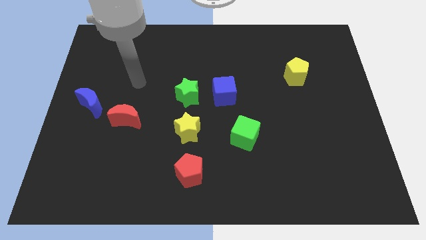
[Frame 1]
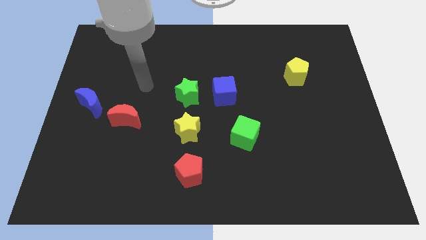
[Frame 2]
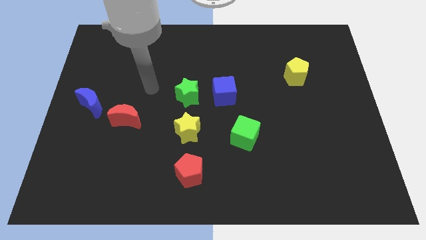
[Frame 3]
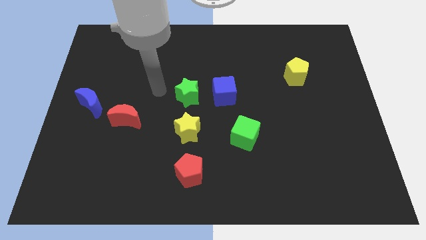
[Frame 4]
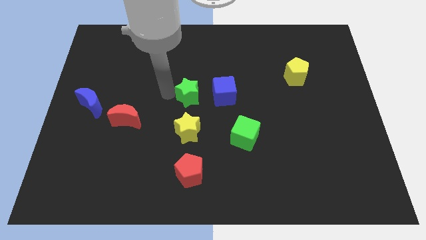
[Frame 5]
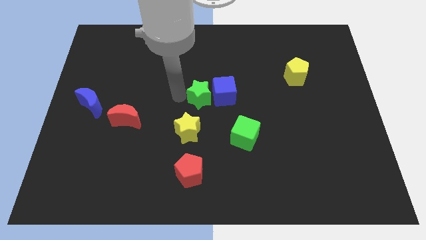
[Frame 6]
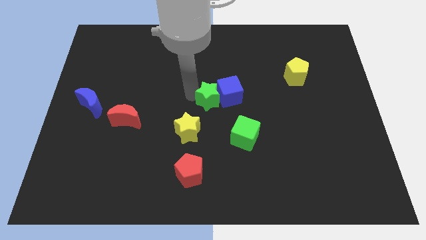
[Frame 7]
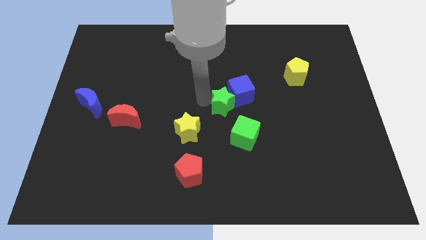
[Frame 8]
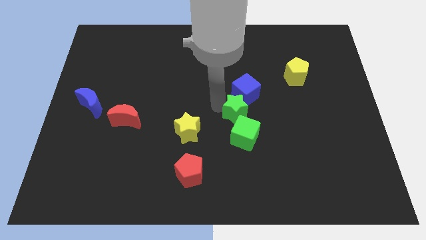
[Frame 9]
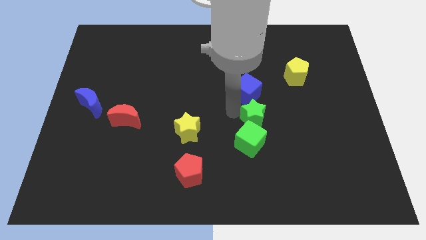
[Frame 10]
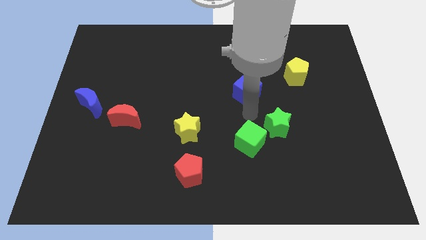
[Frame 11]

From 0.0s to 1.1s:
pull the blue cube apart from the green star

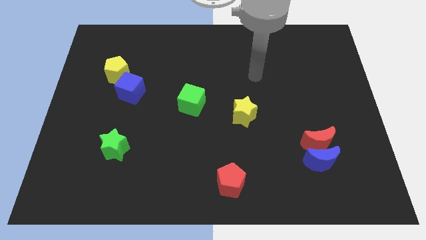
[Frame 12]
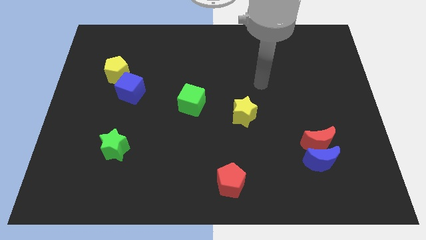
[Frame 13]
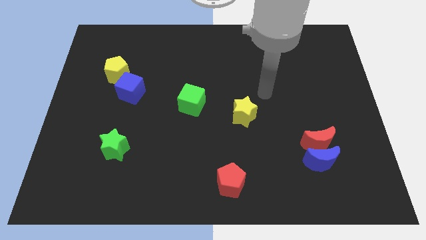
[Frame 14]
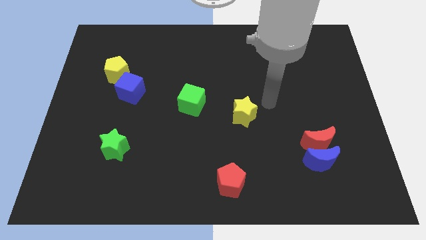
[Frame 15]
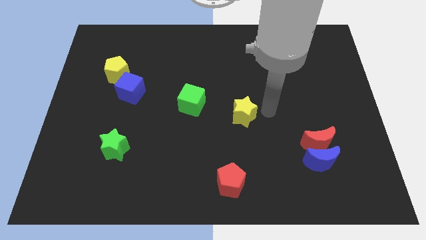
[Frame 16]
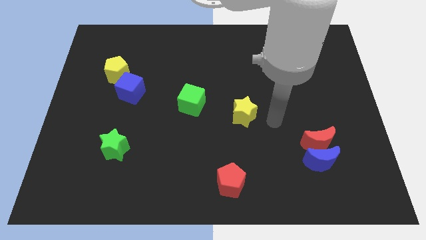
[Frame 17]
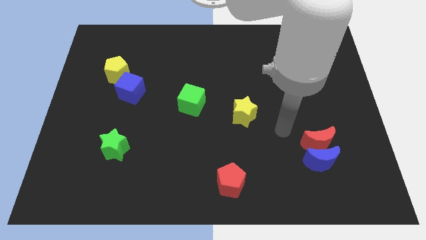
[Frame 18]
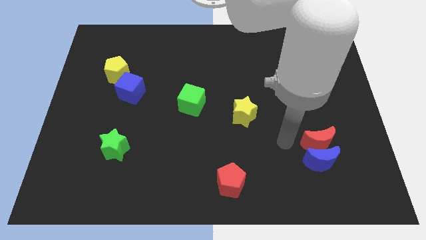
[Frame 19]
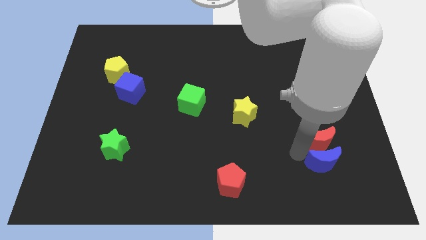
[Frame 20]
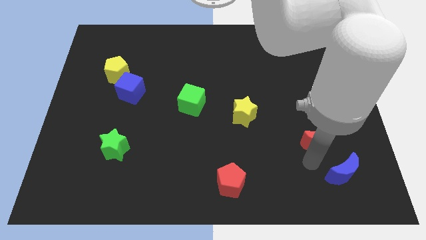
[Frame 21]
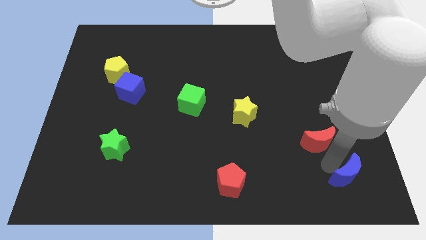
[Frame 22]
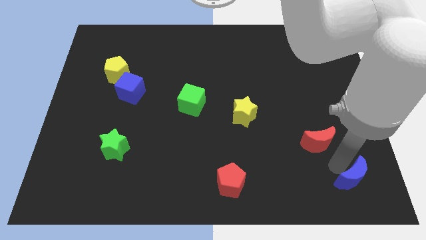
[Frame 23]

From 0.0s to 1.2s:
move the red moon away from the blue moon

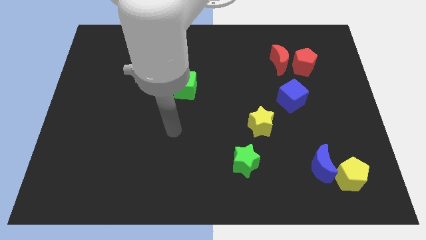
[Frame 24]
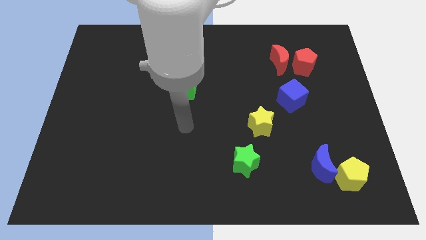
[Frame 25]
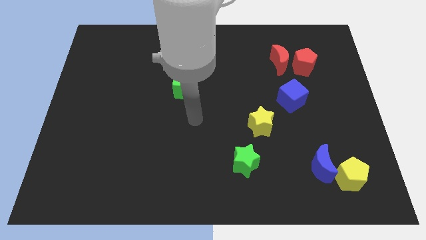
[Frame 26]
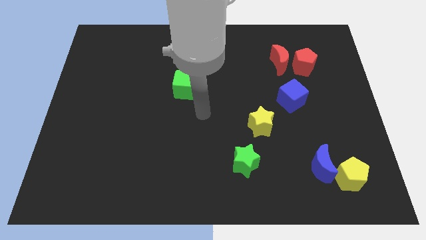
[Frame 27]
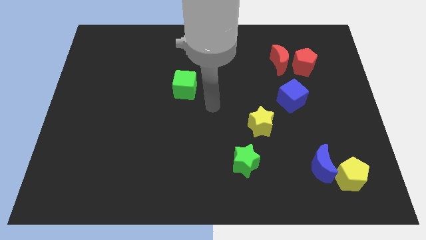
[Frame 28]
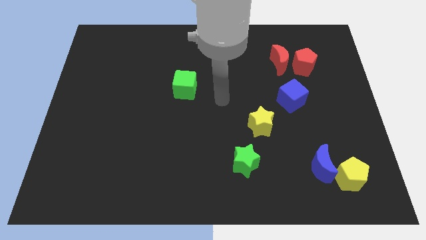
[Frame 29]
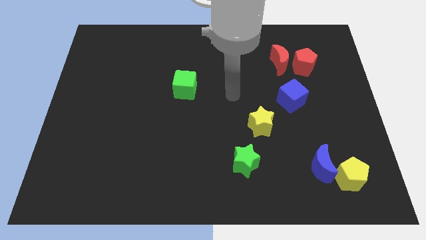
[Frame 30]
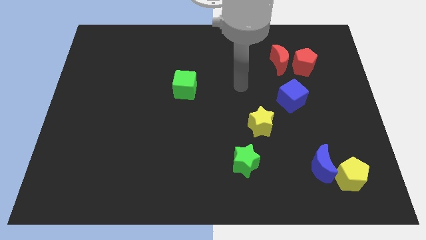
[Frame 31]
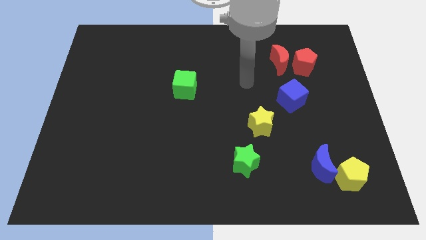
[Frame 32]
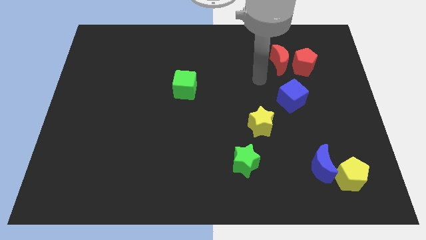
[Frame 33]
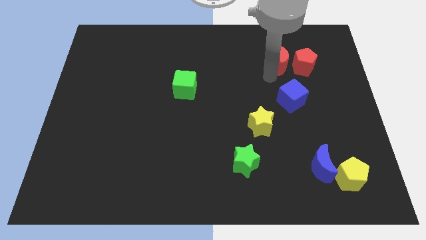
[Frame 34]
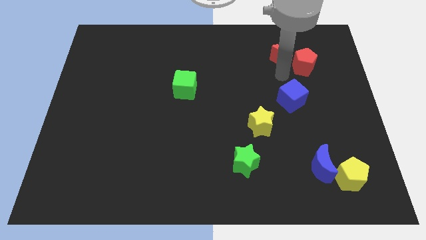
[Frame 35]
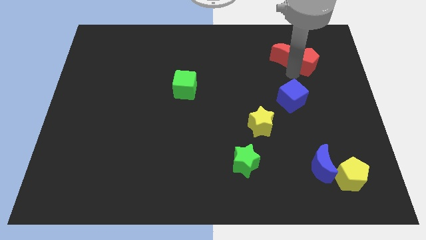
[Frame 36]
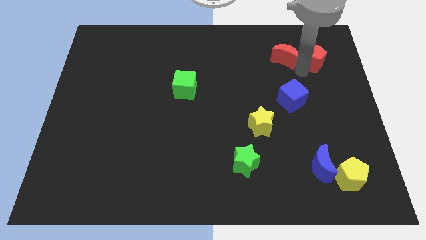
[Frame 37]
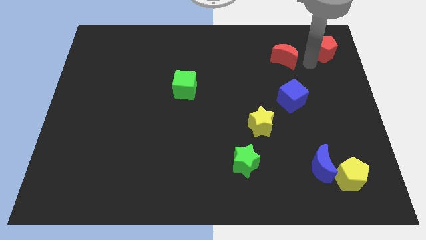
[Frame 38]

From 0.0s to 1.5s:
move the red moon away from the red pentagon

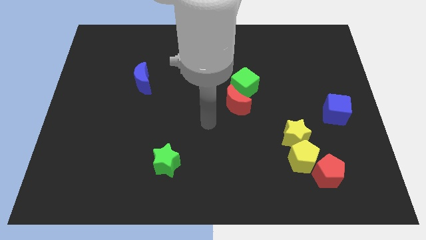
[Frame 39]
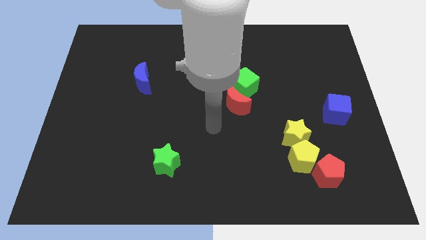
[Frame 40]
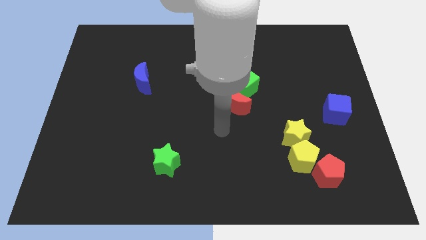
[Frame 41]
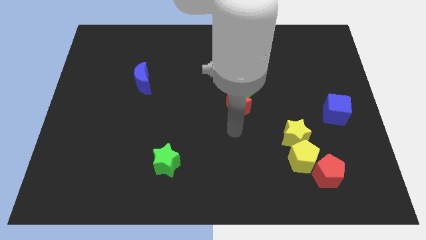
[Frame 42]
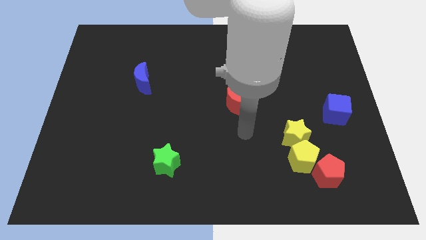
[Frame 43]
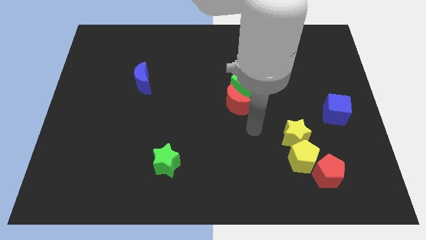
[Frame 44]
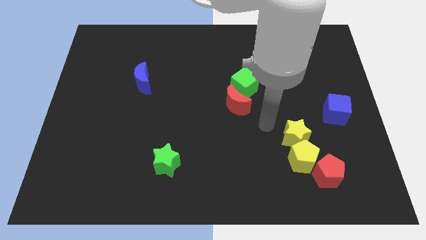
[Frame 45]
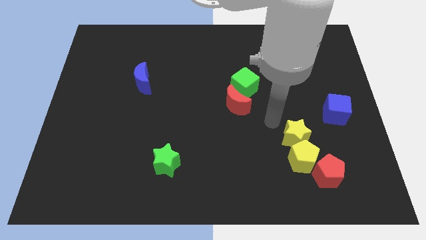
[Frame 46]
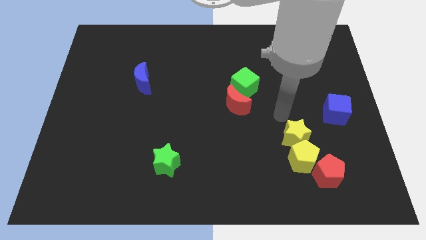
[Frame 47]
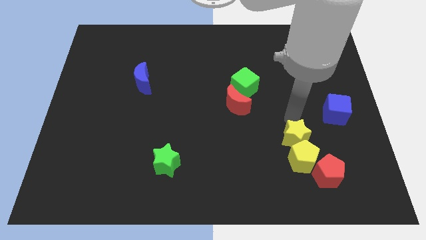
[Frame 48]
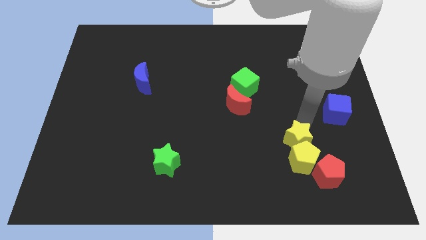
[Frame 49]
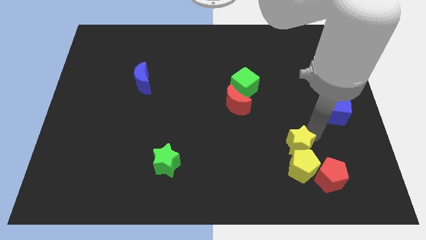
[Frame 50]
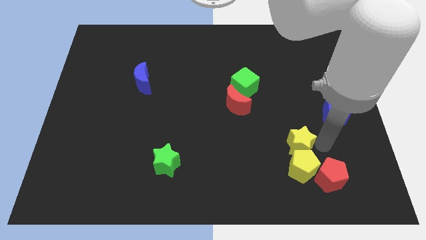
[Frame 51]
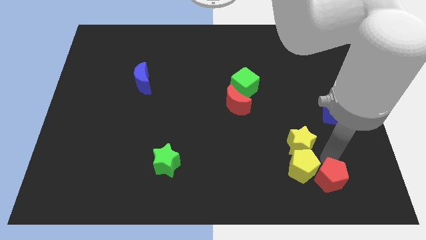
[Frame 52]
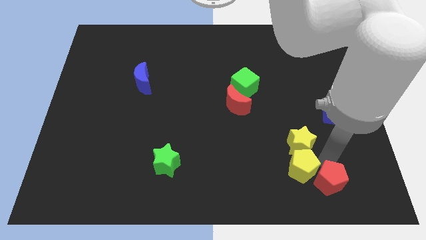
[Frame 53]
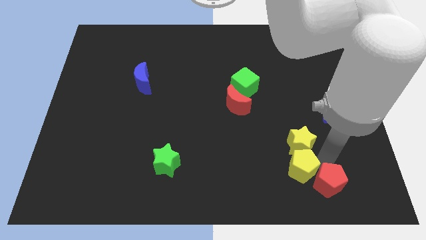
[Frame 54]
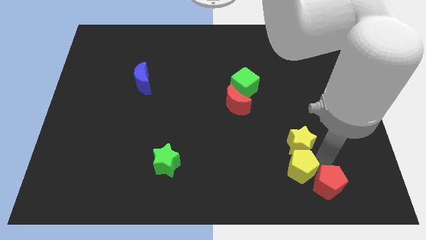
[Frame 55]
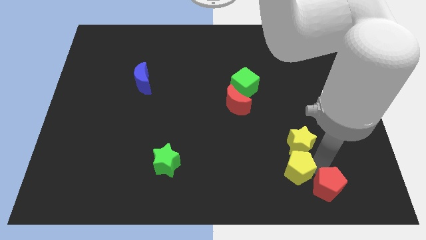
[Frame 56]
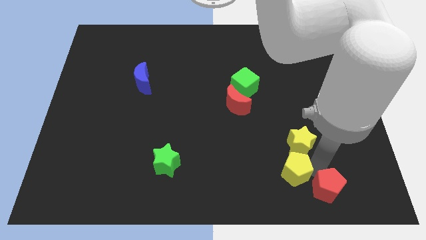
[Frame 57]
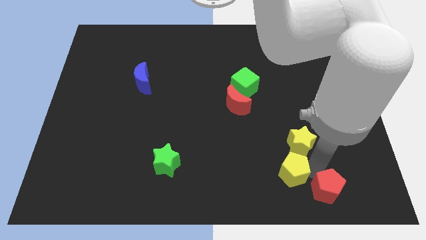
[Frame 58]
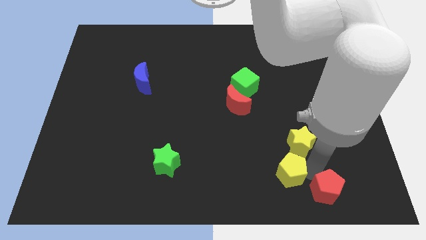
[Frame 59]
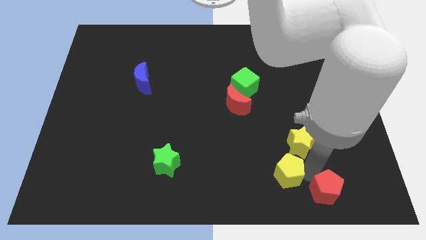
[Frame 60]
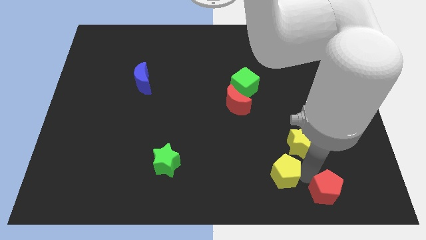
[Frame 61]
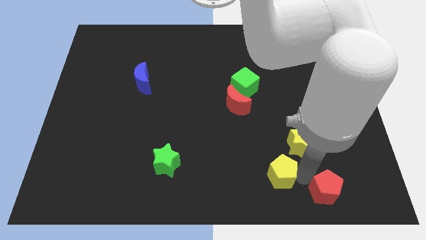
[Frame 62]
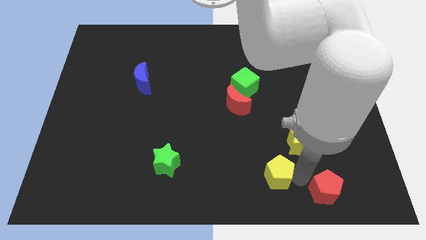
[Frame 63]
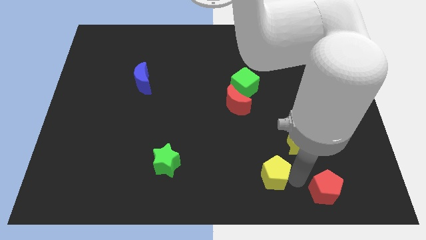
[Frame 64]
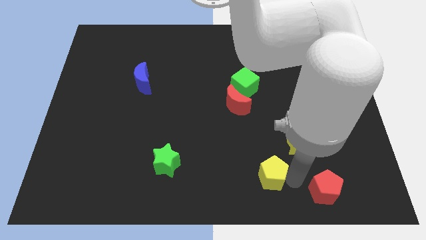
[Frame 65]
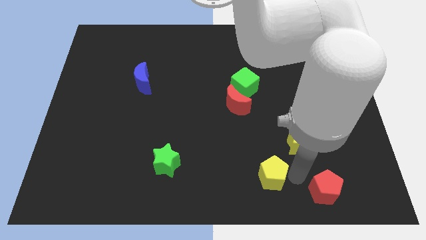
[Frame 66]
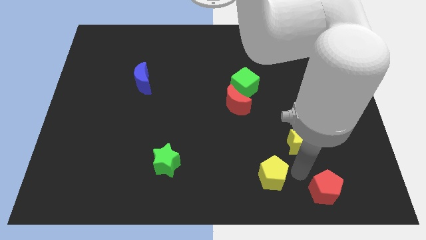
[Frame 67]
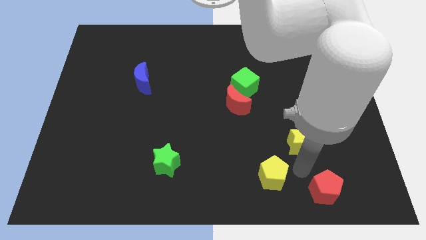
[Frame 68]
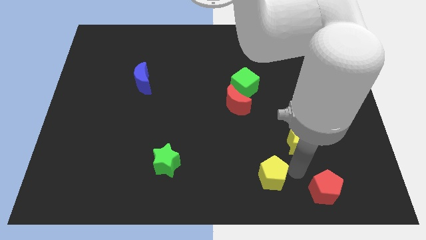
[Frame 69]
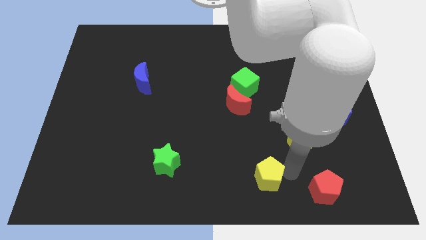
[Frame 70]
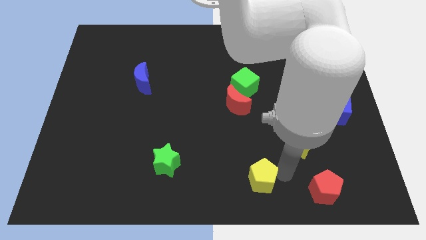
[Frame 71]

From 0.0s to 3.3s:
separate the yellow pentagon from the red pentagon and yellow star

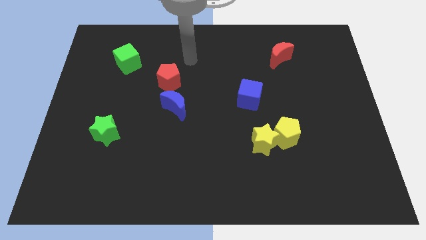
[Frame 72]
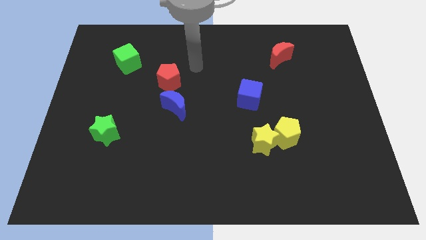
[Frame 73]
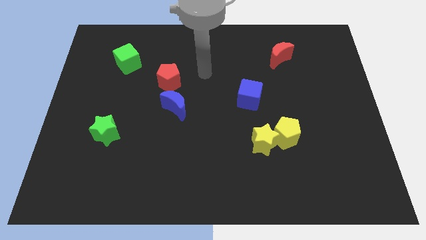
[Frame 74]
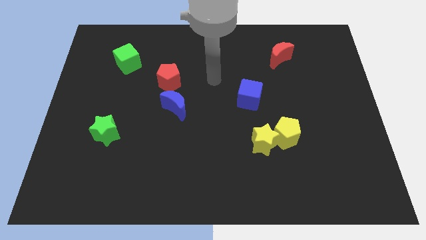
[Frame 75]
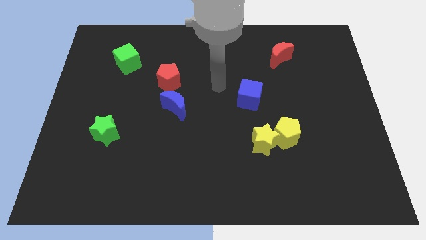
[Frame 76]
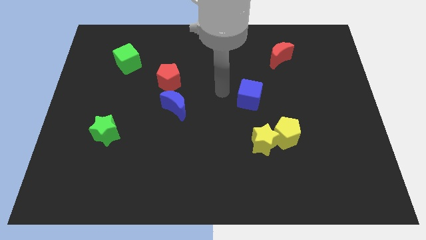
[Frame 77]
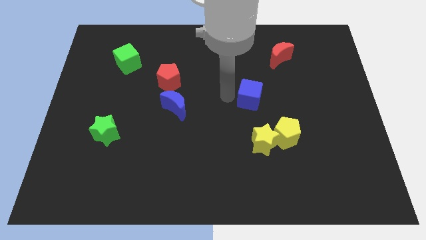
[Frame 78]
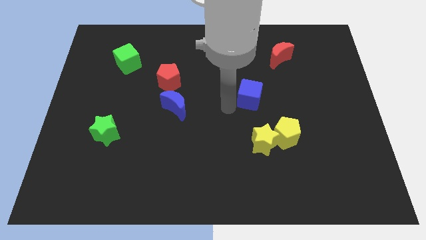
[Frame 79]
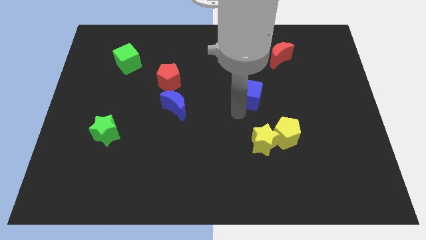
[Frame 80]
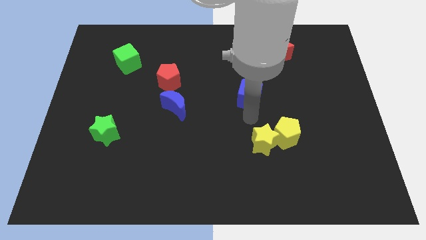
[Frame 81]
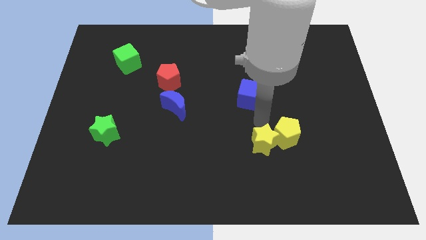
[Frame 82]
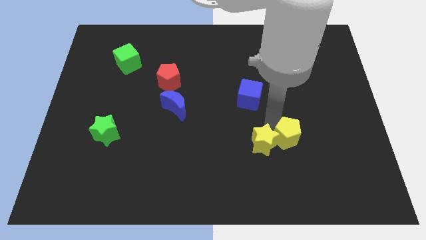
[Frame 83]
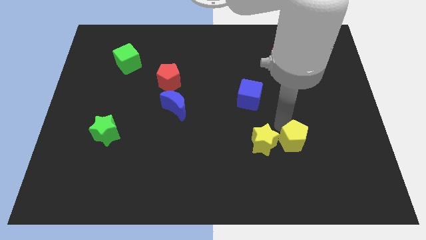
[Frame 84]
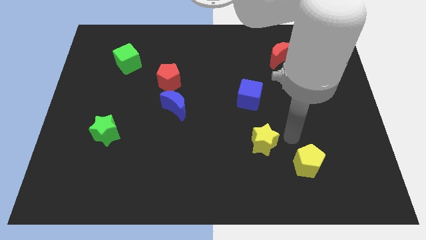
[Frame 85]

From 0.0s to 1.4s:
separate the yellow star from the yellow pentagon

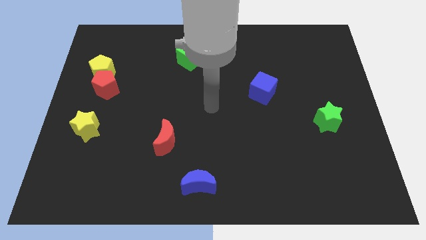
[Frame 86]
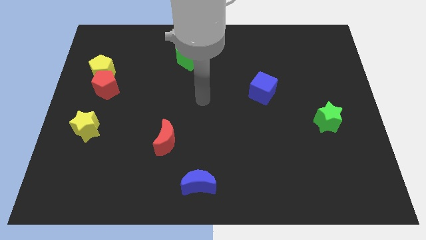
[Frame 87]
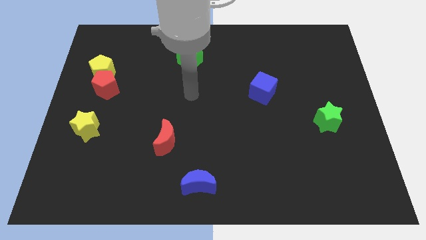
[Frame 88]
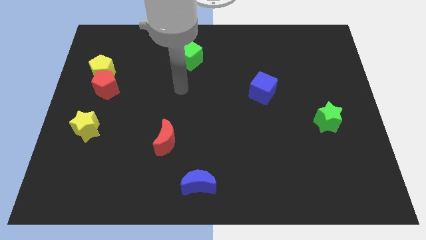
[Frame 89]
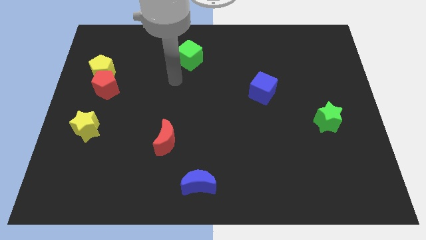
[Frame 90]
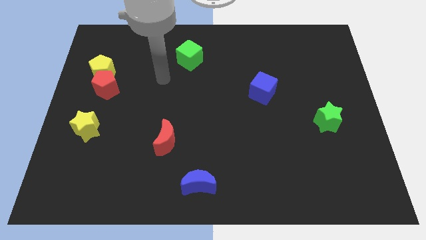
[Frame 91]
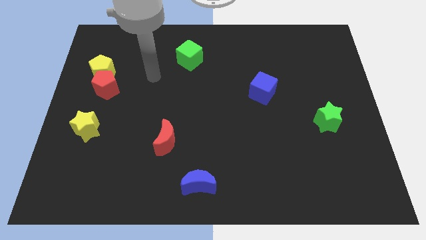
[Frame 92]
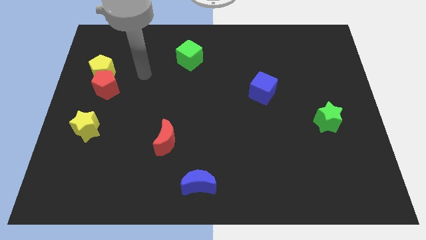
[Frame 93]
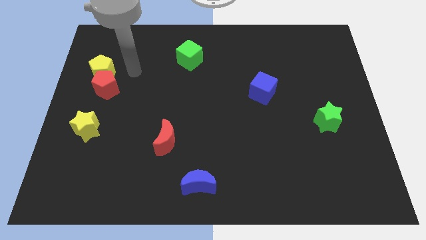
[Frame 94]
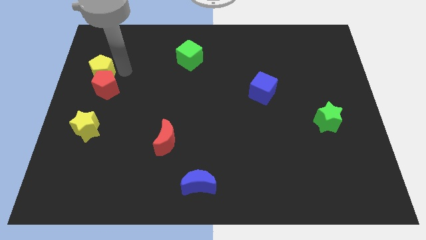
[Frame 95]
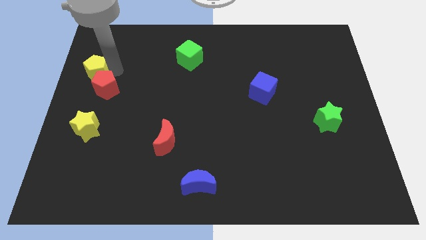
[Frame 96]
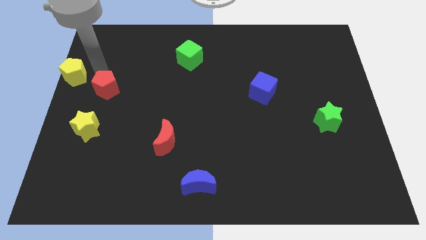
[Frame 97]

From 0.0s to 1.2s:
pull the red pentagon apart from the yellow pentagon
